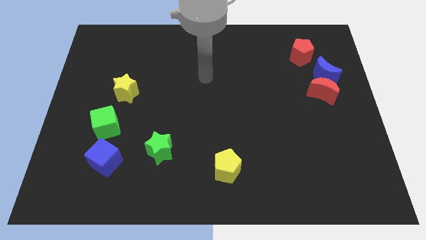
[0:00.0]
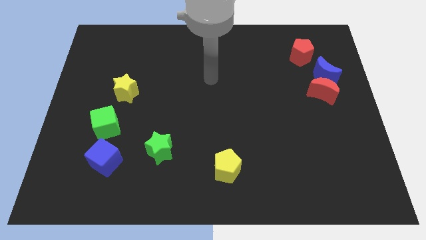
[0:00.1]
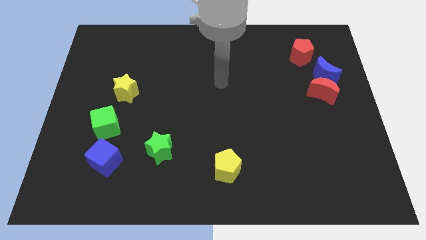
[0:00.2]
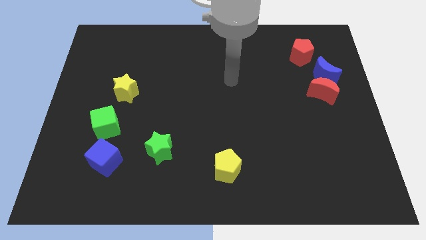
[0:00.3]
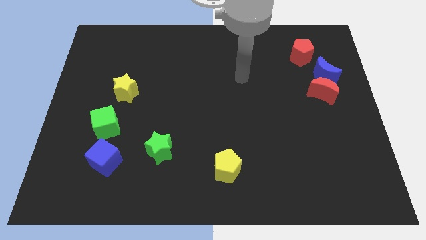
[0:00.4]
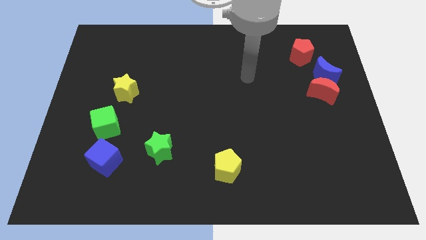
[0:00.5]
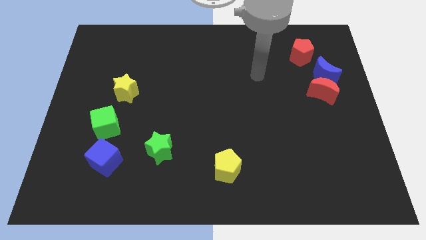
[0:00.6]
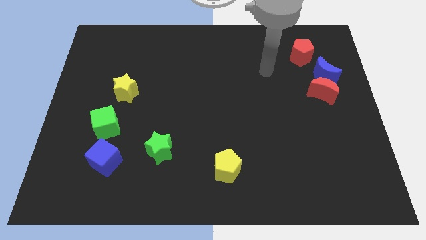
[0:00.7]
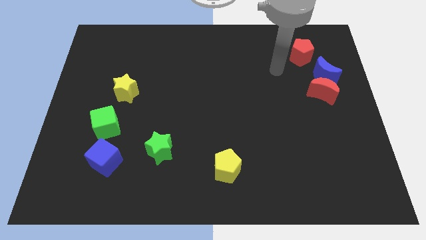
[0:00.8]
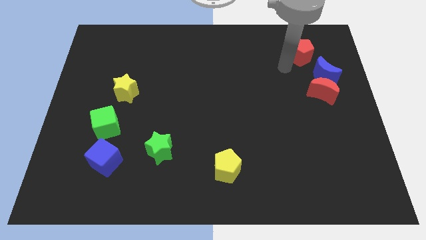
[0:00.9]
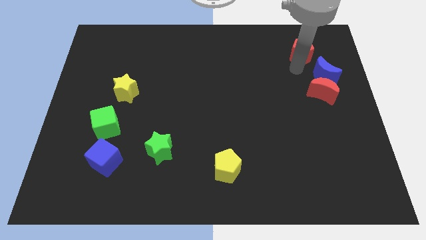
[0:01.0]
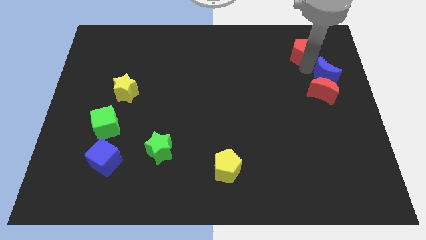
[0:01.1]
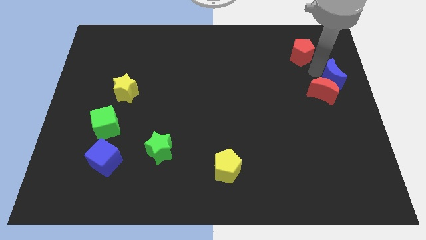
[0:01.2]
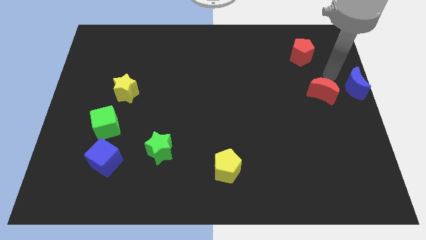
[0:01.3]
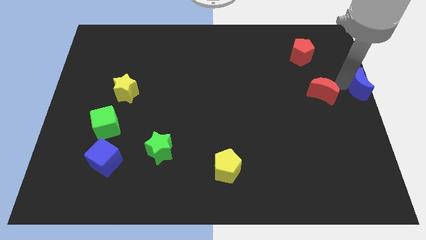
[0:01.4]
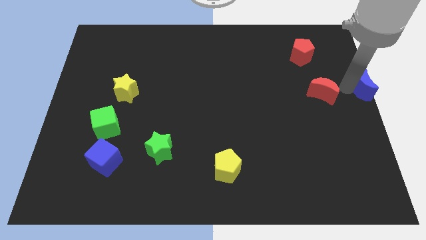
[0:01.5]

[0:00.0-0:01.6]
move the red moon away from the blue moon

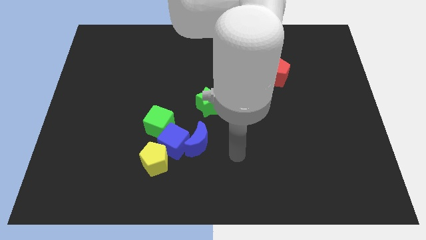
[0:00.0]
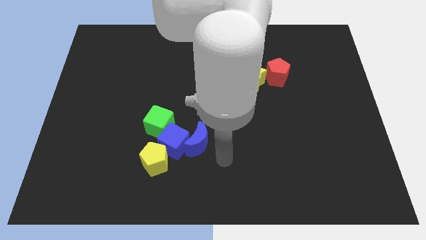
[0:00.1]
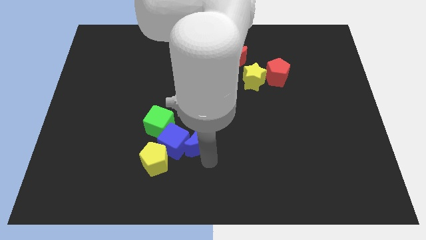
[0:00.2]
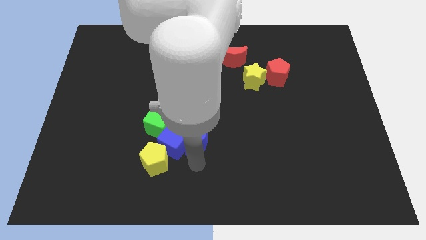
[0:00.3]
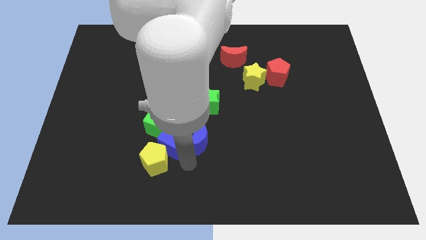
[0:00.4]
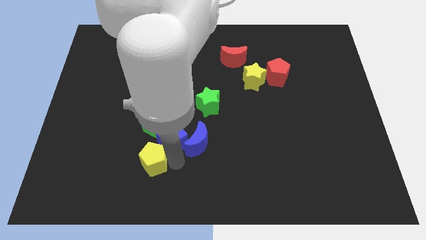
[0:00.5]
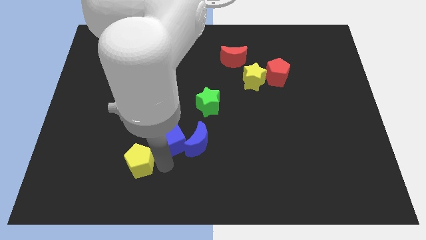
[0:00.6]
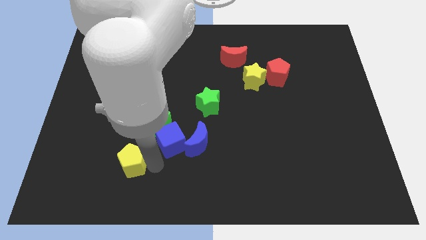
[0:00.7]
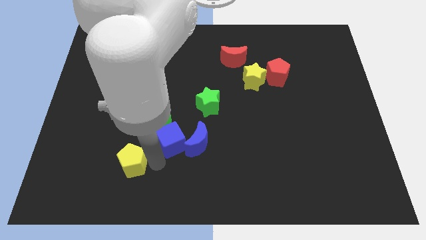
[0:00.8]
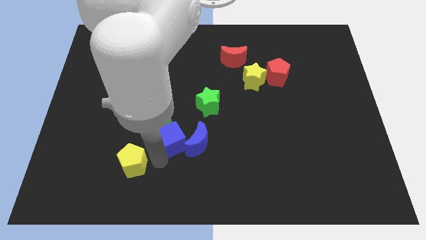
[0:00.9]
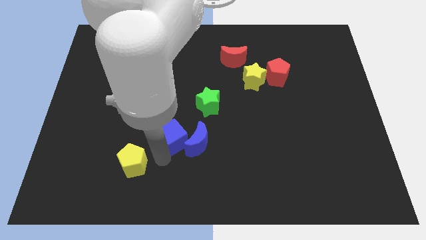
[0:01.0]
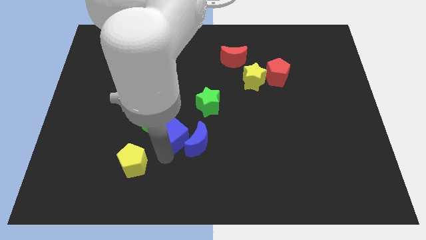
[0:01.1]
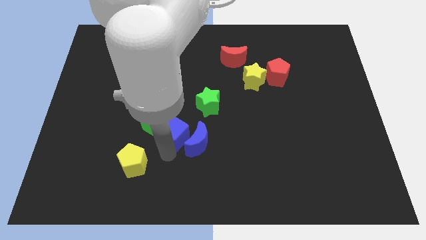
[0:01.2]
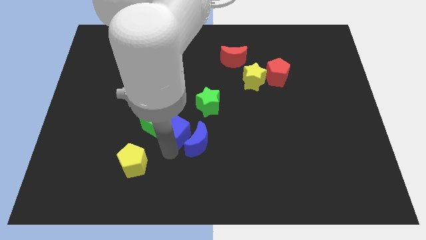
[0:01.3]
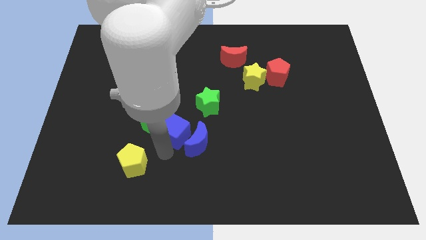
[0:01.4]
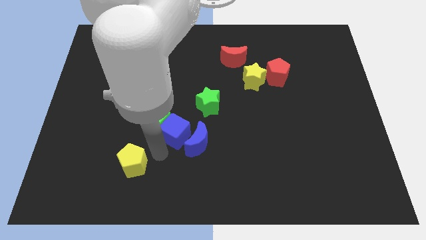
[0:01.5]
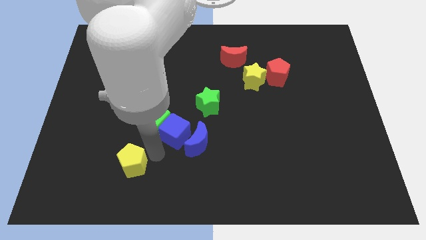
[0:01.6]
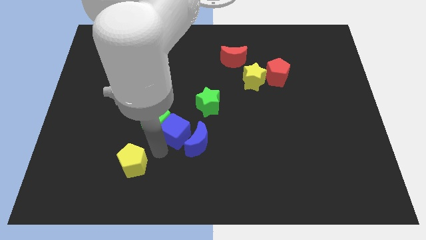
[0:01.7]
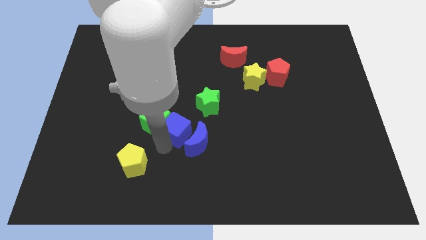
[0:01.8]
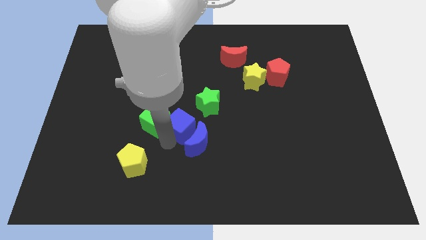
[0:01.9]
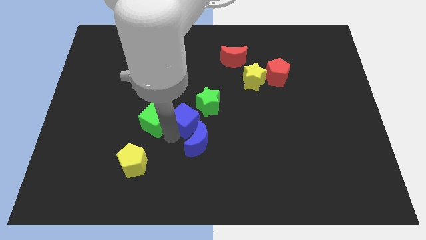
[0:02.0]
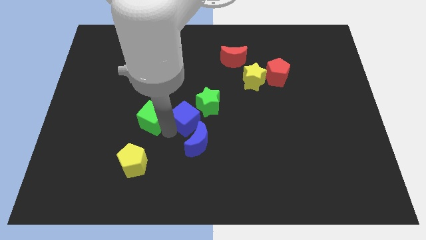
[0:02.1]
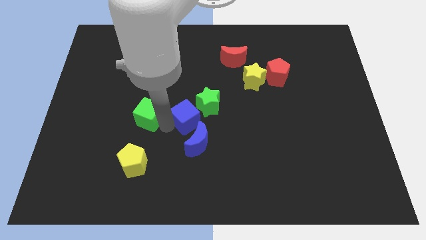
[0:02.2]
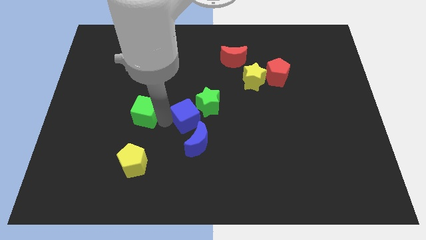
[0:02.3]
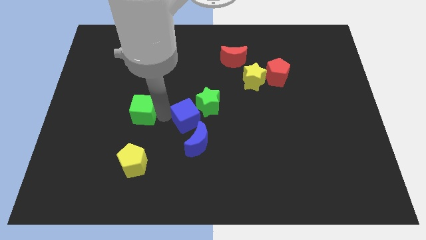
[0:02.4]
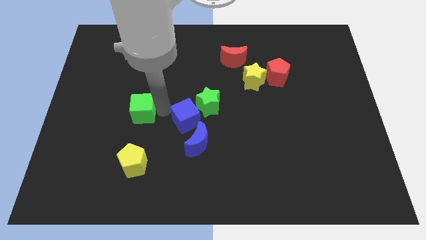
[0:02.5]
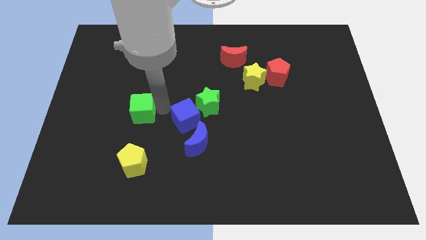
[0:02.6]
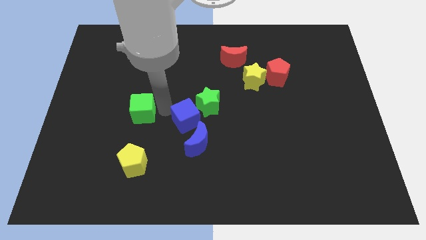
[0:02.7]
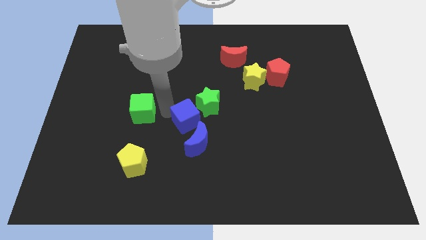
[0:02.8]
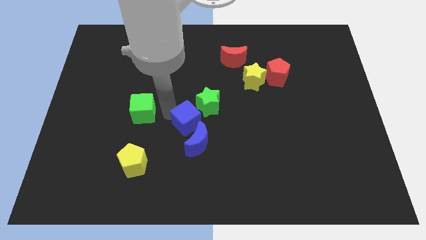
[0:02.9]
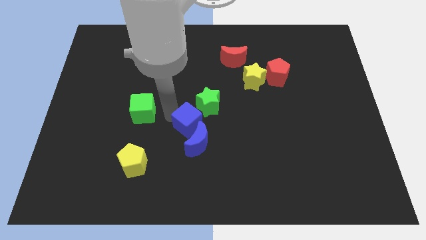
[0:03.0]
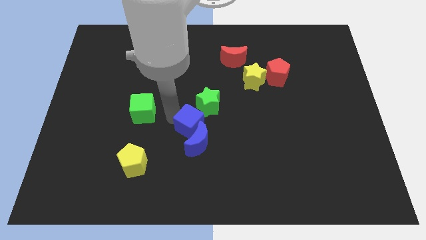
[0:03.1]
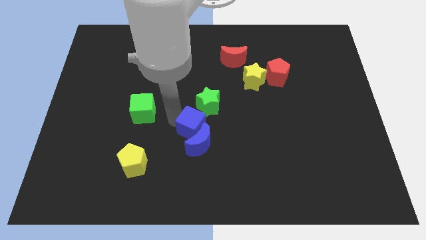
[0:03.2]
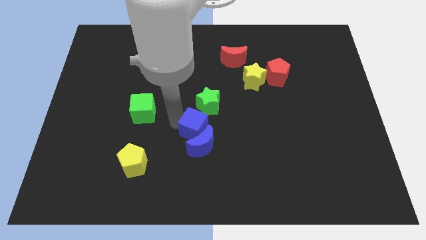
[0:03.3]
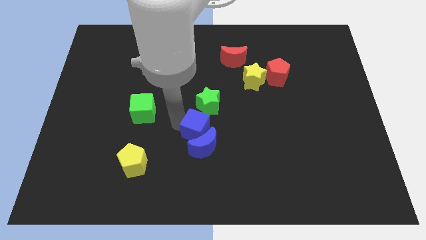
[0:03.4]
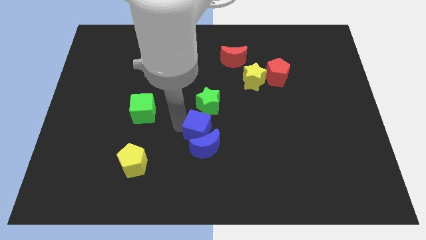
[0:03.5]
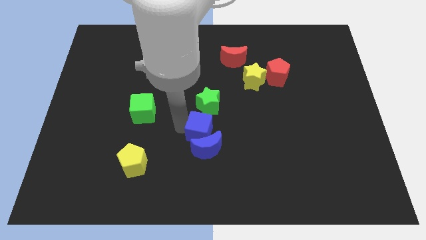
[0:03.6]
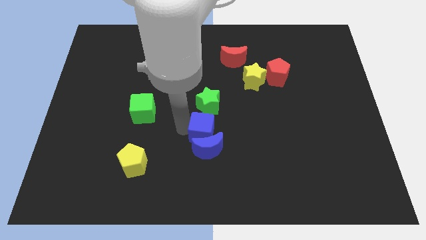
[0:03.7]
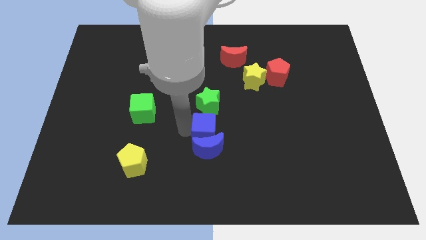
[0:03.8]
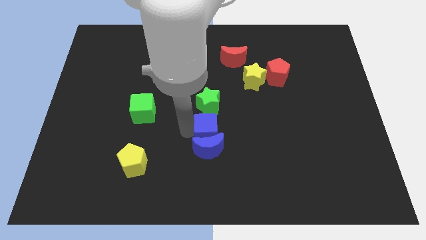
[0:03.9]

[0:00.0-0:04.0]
move the blue cube away from the group

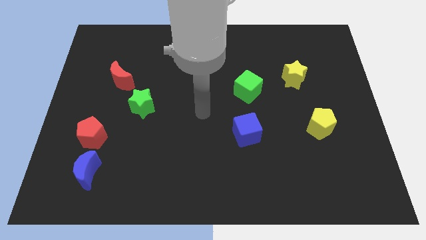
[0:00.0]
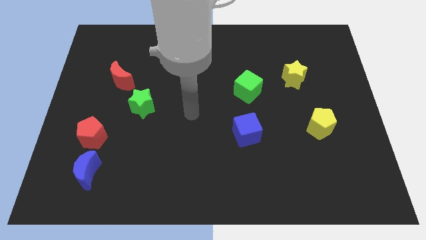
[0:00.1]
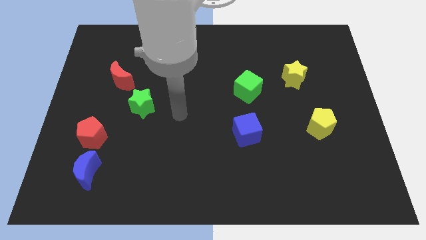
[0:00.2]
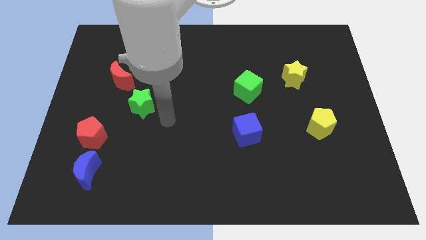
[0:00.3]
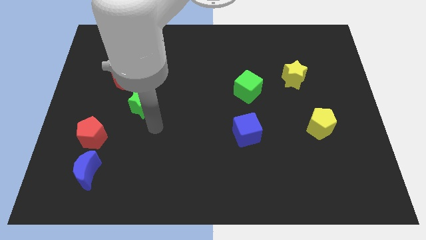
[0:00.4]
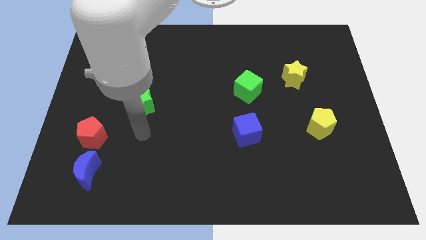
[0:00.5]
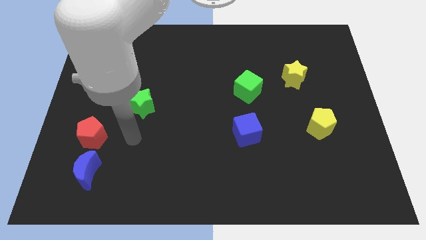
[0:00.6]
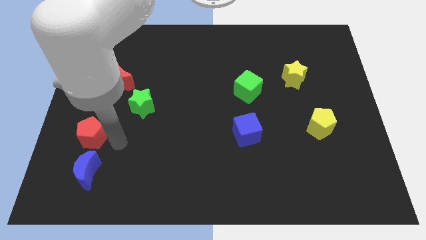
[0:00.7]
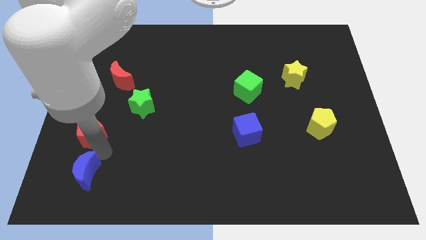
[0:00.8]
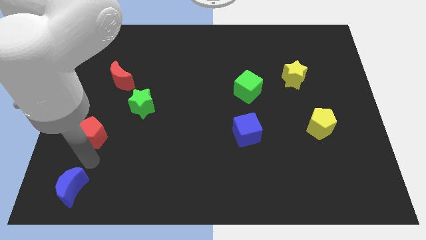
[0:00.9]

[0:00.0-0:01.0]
pull the red pentagon apart from the blue moon

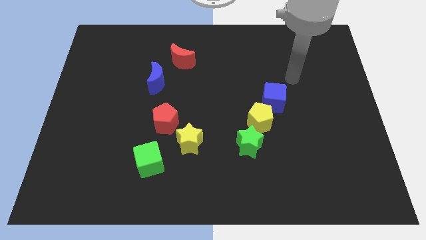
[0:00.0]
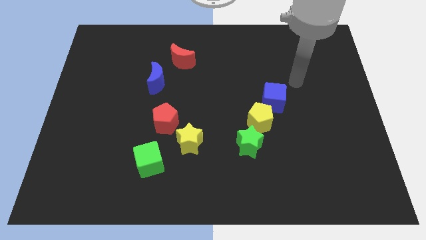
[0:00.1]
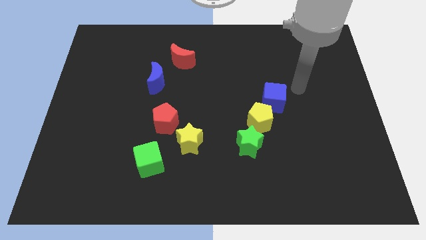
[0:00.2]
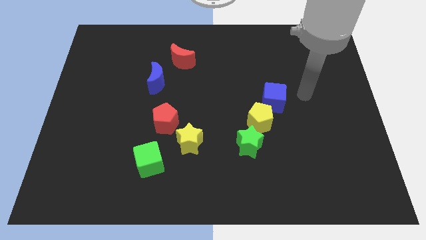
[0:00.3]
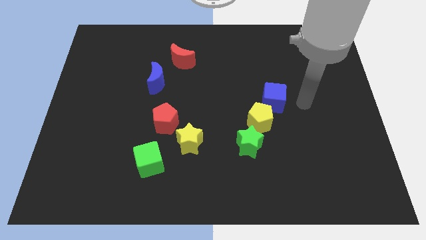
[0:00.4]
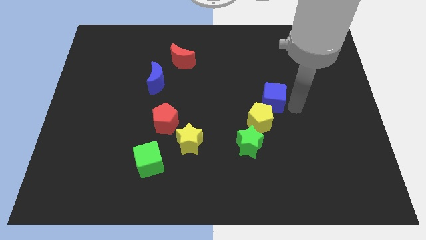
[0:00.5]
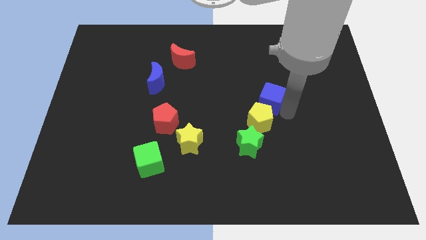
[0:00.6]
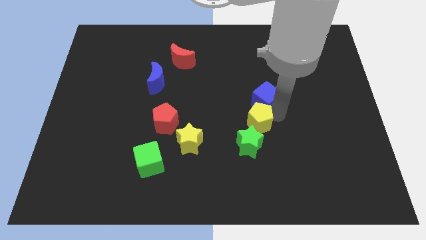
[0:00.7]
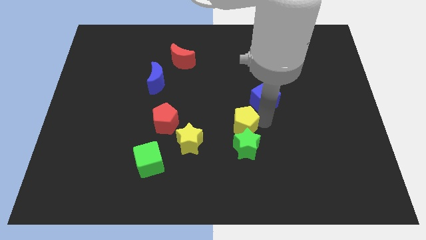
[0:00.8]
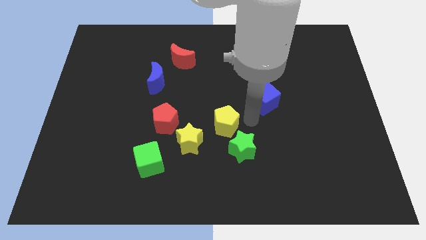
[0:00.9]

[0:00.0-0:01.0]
separate the blue cube from the yellow pentagon

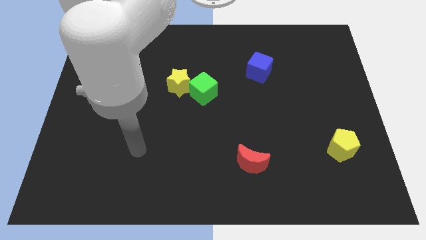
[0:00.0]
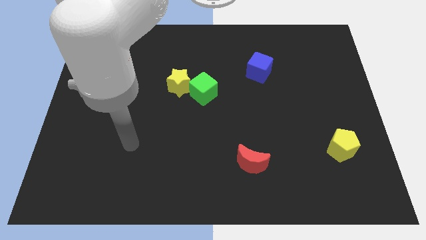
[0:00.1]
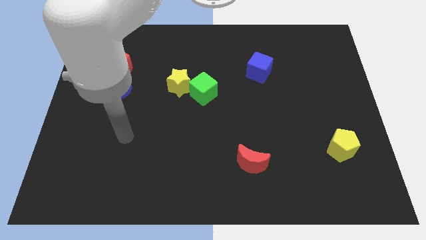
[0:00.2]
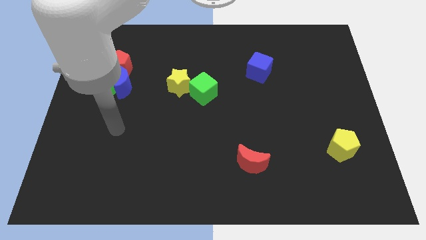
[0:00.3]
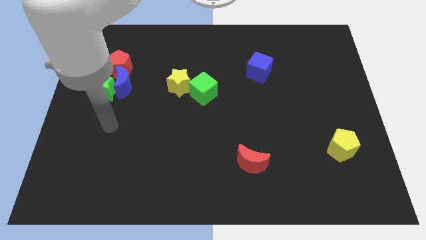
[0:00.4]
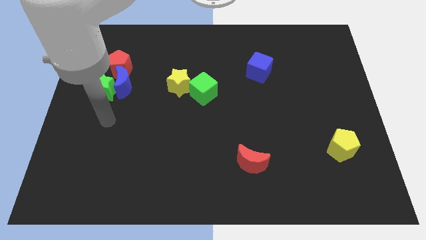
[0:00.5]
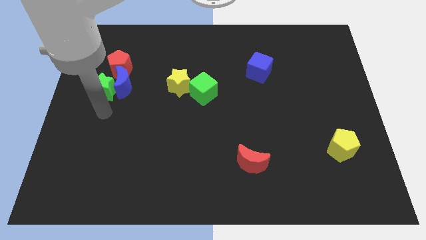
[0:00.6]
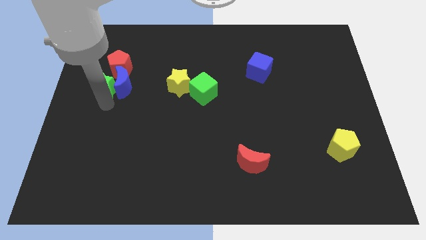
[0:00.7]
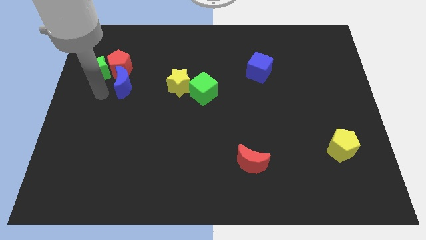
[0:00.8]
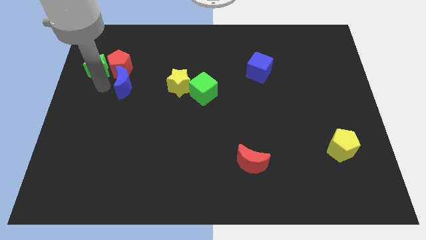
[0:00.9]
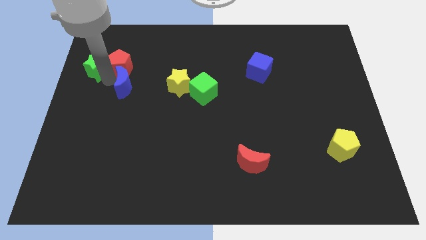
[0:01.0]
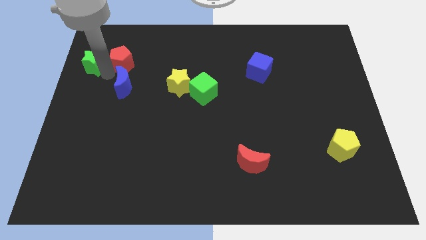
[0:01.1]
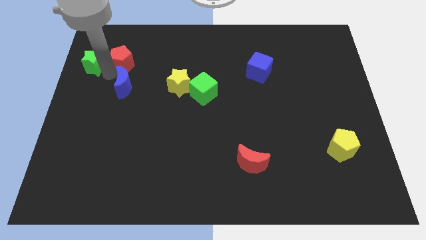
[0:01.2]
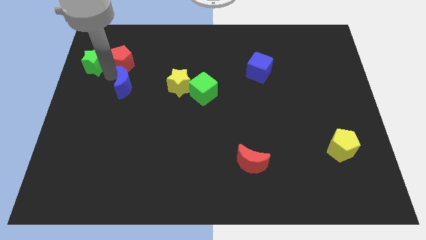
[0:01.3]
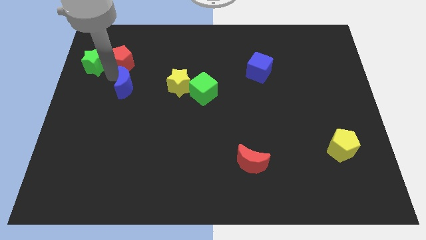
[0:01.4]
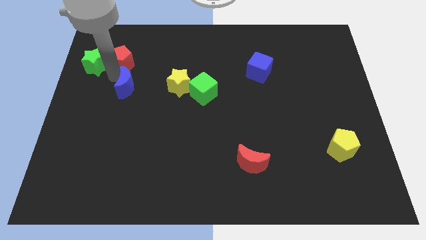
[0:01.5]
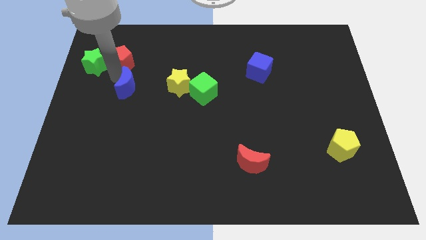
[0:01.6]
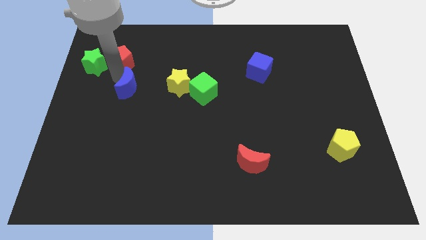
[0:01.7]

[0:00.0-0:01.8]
pull the blue moon apart from the green star and red pentagon
